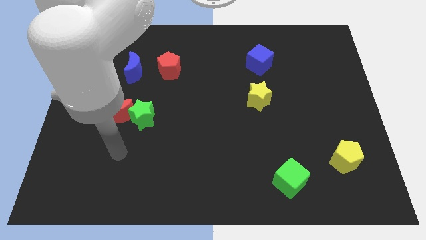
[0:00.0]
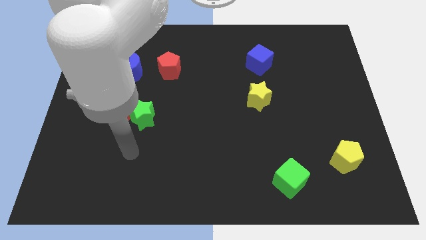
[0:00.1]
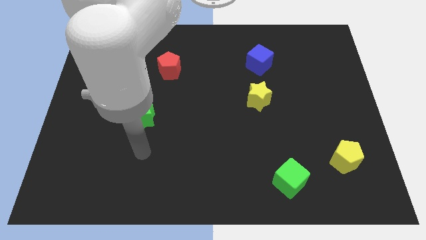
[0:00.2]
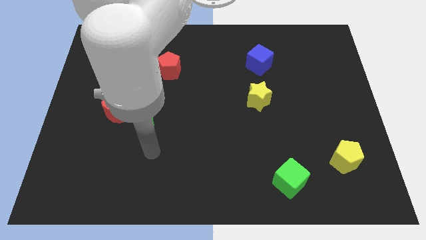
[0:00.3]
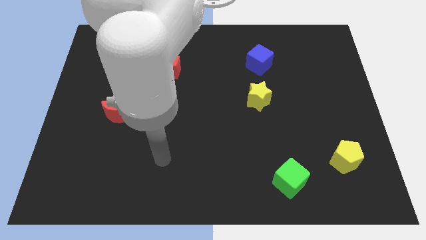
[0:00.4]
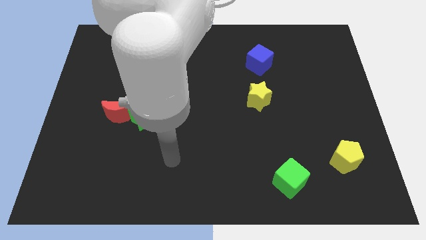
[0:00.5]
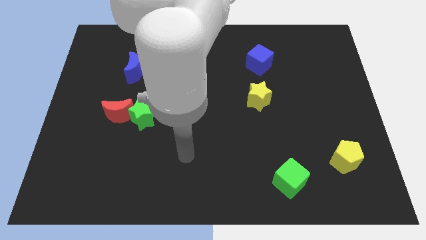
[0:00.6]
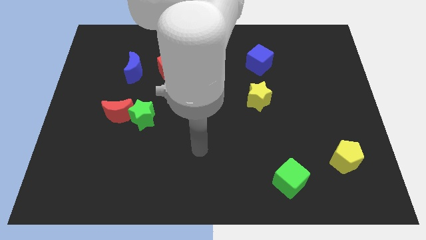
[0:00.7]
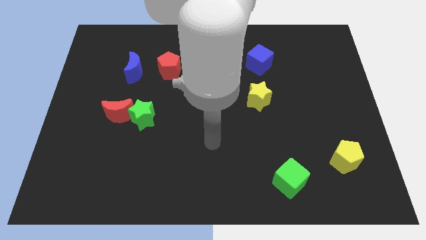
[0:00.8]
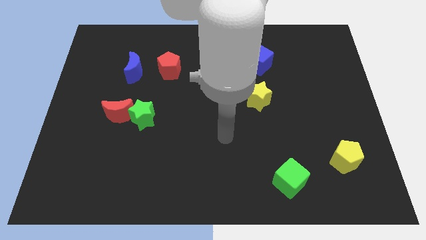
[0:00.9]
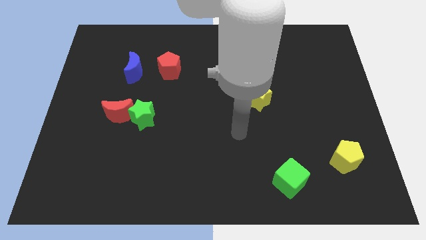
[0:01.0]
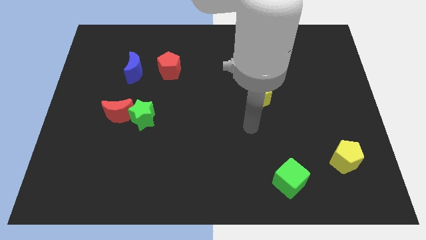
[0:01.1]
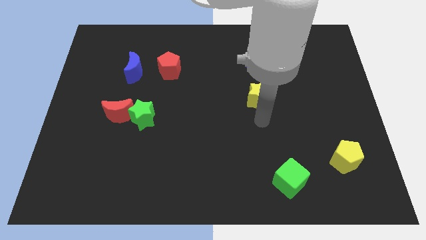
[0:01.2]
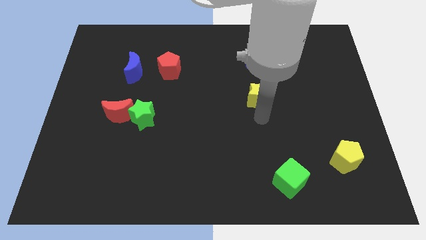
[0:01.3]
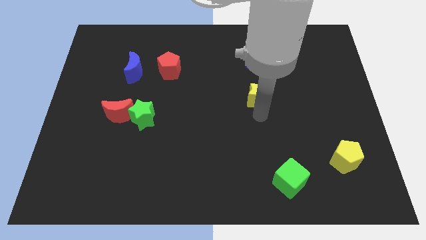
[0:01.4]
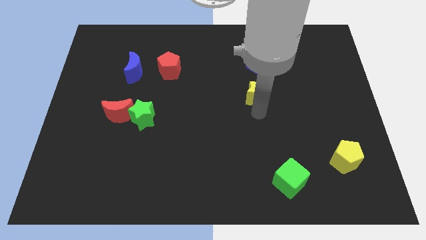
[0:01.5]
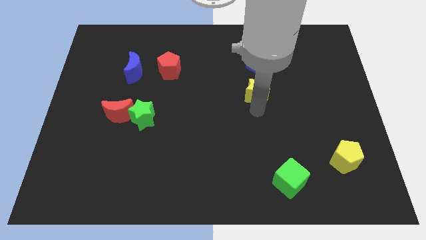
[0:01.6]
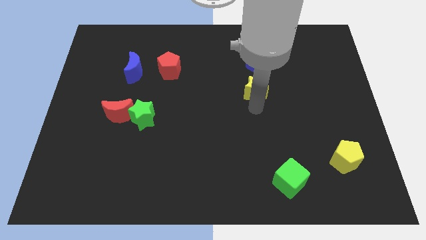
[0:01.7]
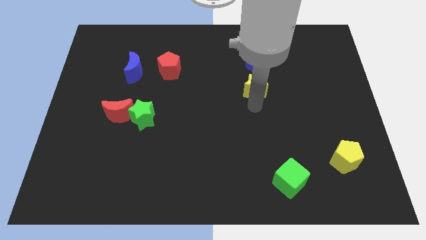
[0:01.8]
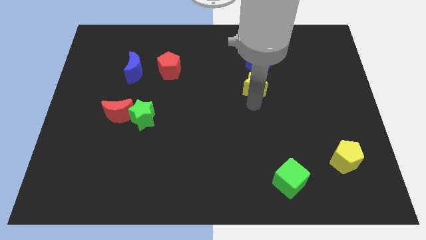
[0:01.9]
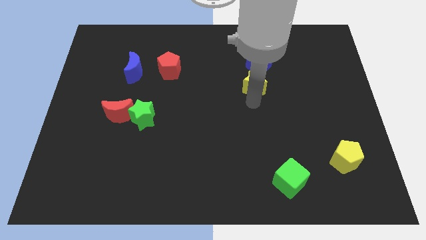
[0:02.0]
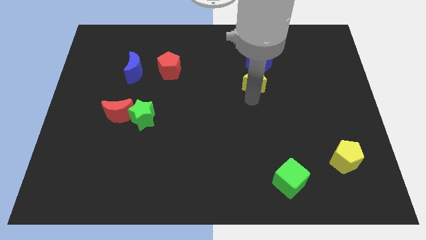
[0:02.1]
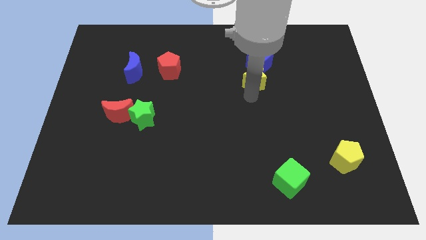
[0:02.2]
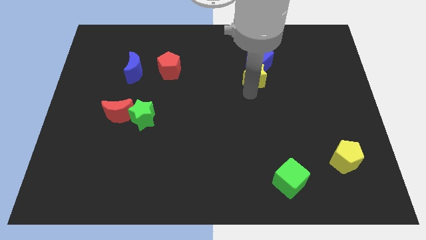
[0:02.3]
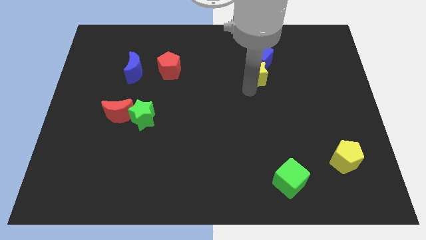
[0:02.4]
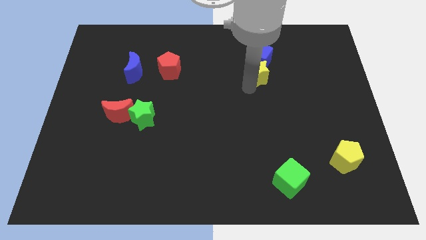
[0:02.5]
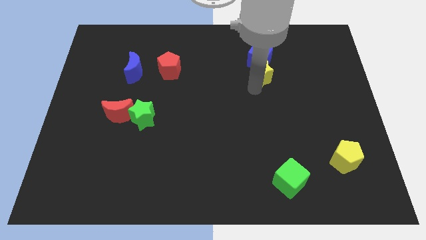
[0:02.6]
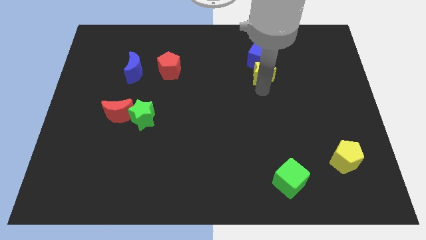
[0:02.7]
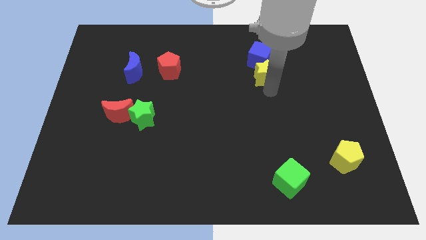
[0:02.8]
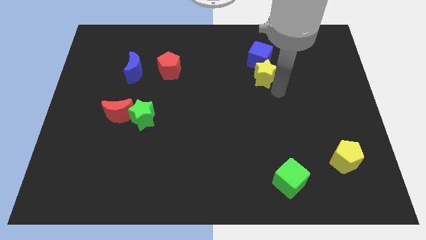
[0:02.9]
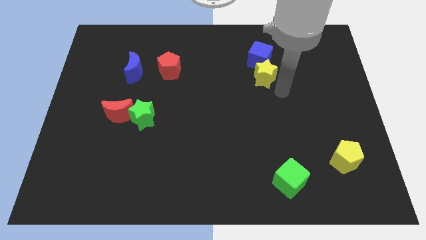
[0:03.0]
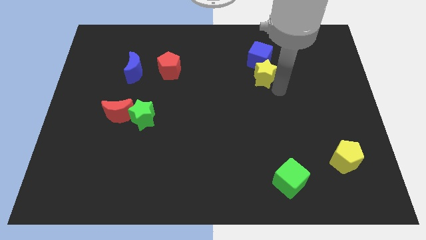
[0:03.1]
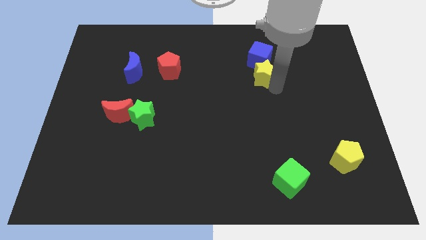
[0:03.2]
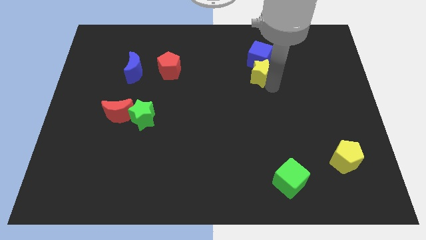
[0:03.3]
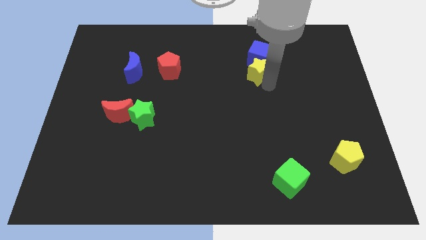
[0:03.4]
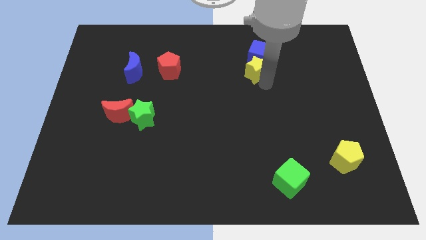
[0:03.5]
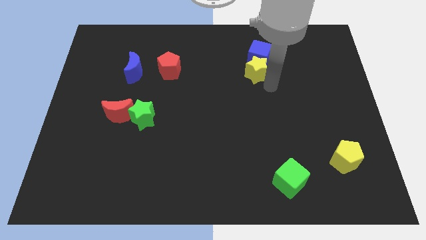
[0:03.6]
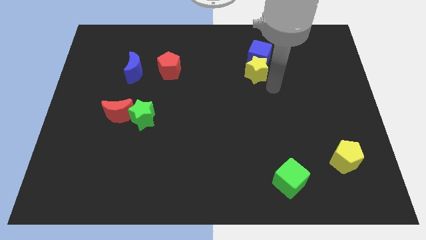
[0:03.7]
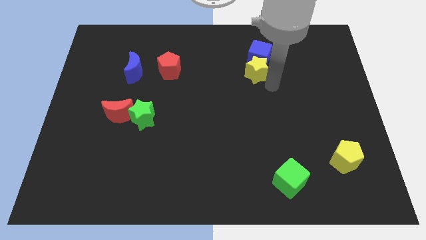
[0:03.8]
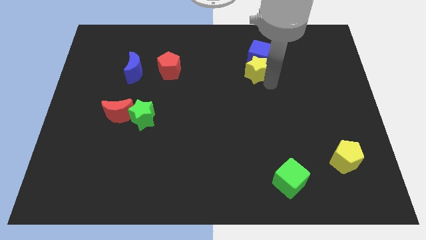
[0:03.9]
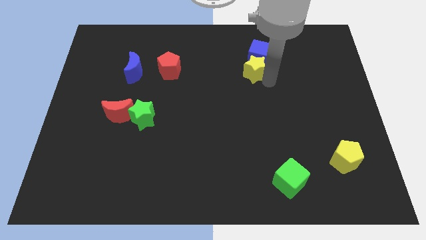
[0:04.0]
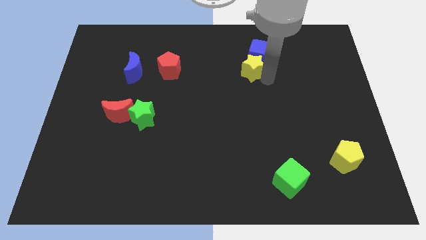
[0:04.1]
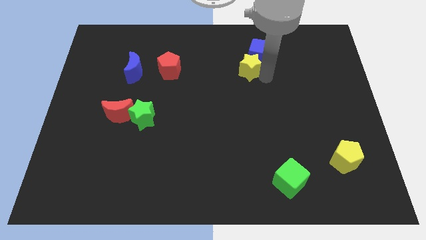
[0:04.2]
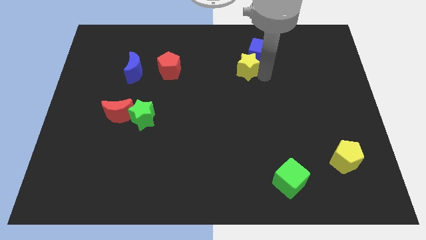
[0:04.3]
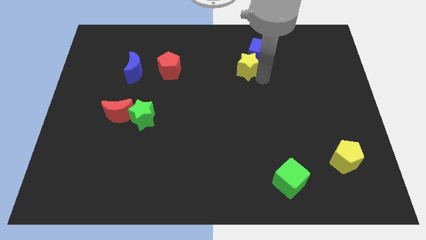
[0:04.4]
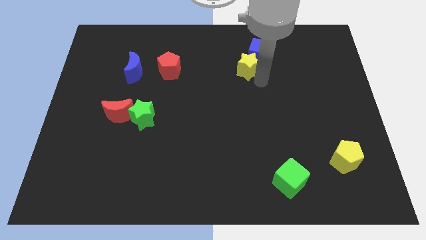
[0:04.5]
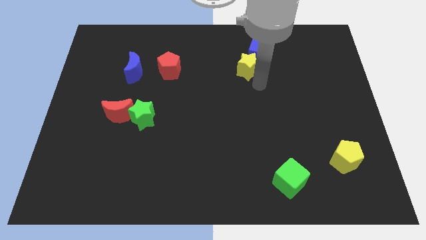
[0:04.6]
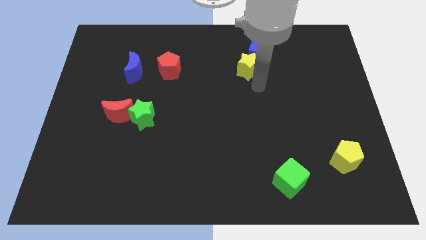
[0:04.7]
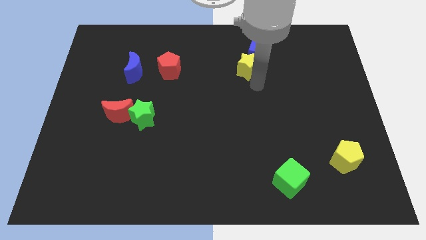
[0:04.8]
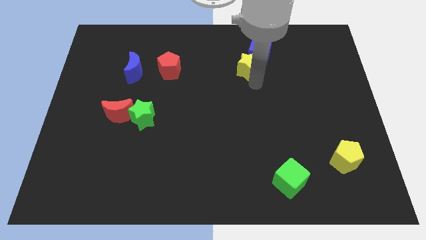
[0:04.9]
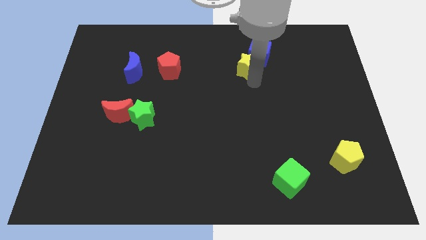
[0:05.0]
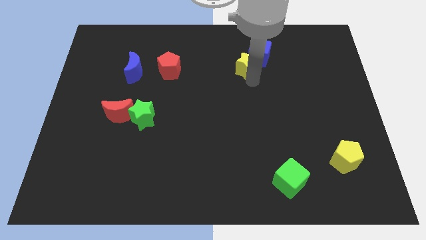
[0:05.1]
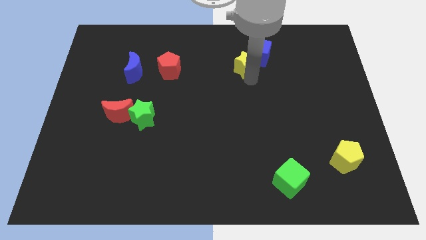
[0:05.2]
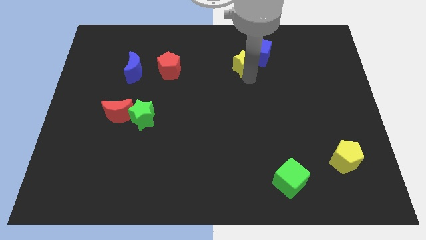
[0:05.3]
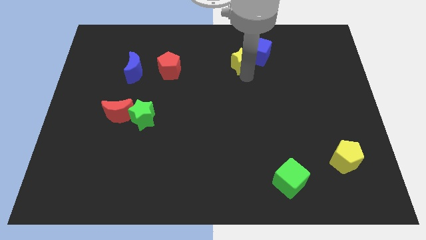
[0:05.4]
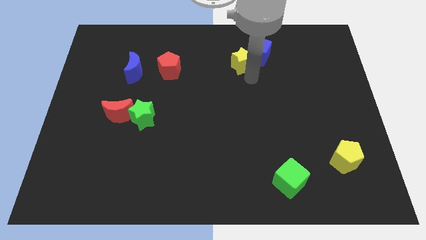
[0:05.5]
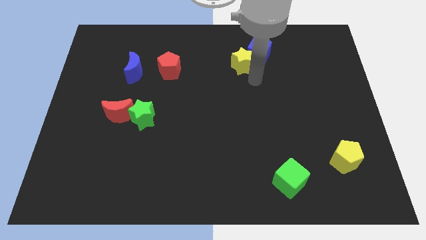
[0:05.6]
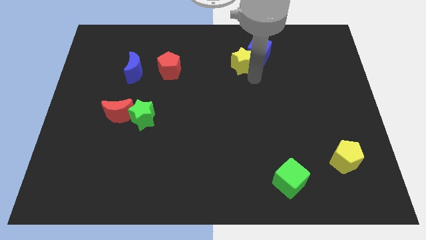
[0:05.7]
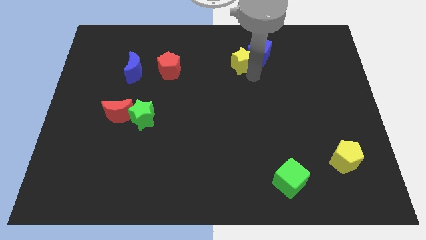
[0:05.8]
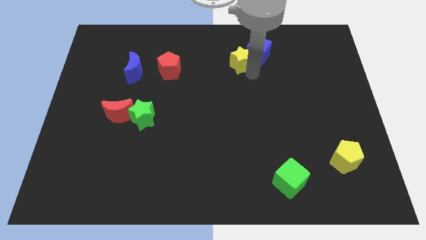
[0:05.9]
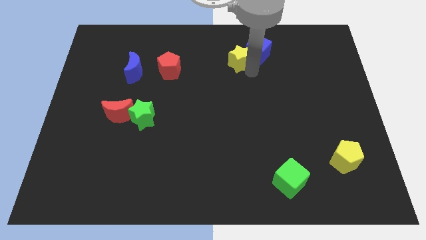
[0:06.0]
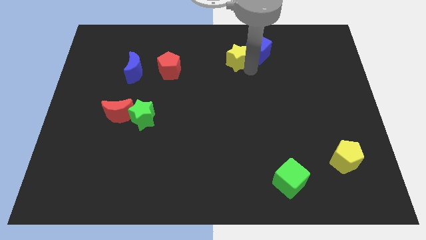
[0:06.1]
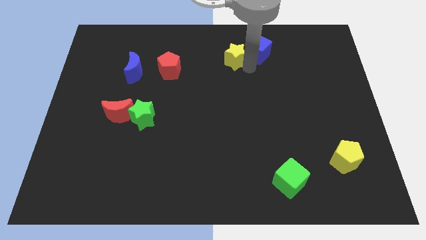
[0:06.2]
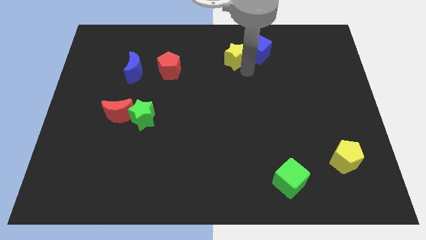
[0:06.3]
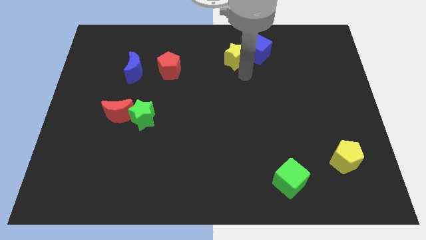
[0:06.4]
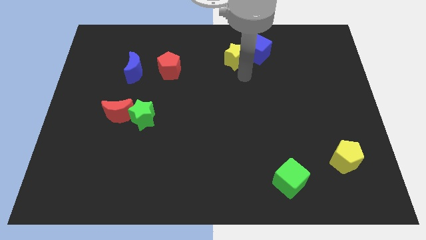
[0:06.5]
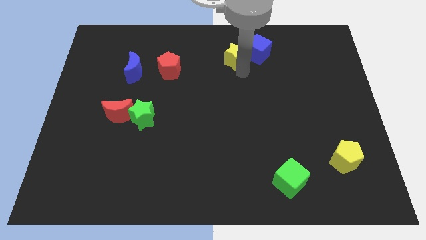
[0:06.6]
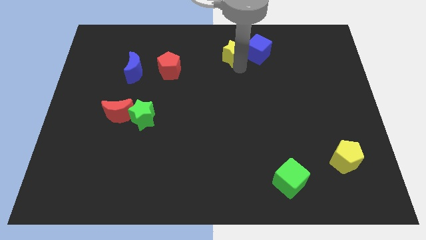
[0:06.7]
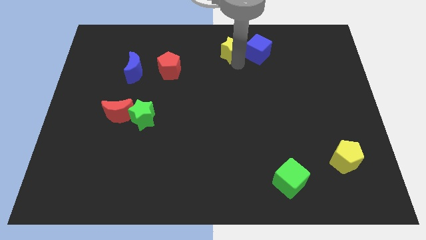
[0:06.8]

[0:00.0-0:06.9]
push the yellow star to the top
